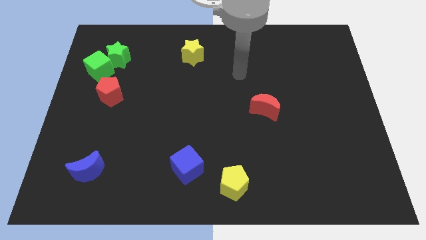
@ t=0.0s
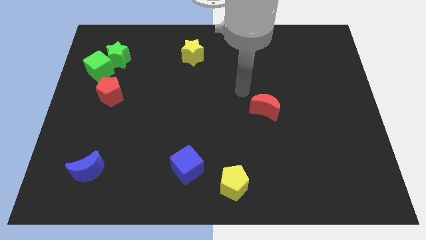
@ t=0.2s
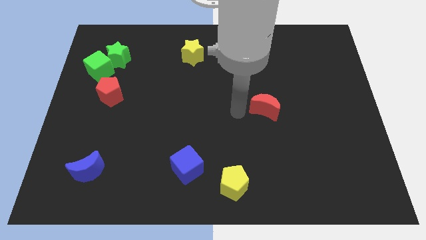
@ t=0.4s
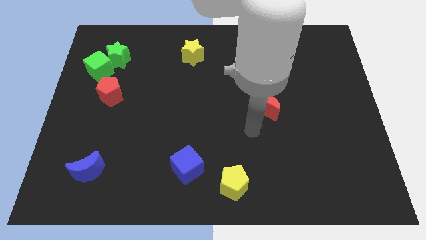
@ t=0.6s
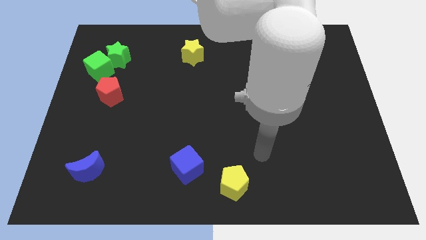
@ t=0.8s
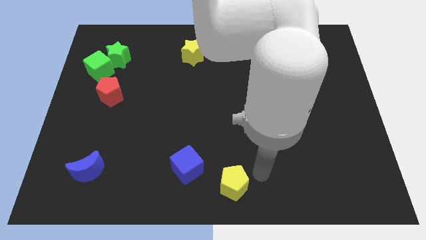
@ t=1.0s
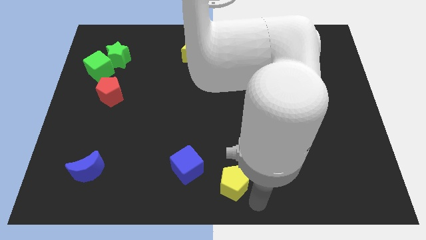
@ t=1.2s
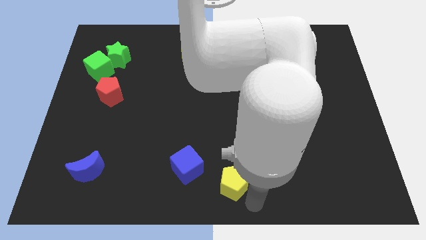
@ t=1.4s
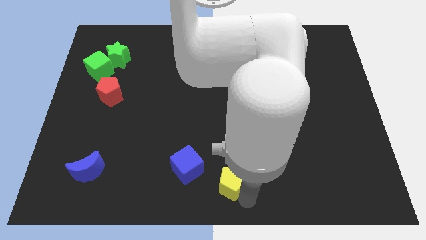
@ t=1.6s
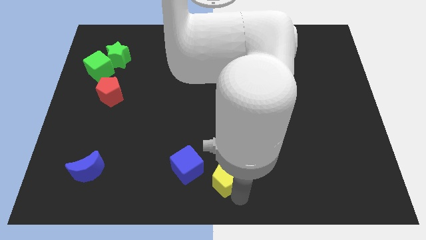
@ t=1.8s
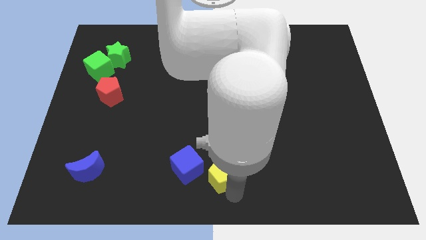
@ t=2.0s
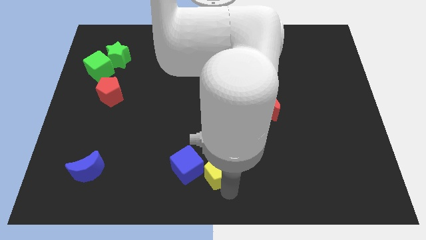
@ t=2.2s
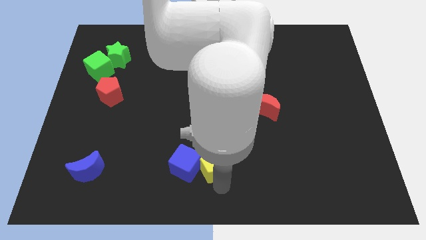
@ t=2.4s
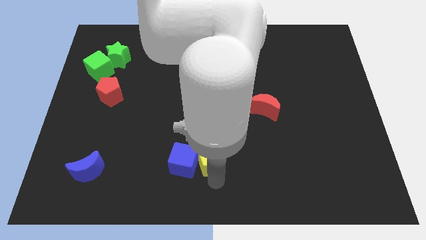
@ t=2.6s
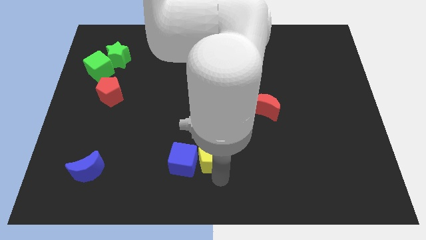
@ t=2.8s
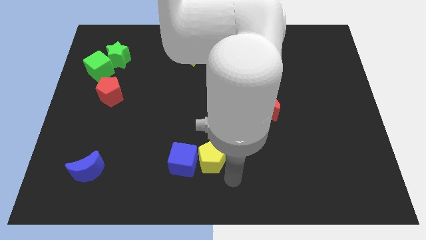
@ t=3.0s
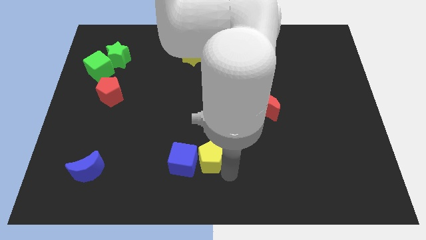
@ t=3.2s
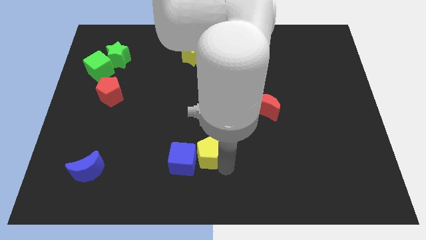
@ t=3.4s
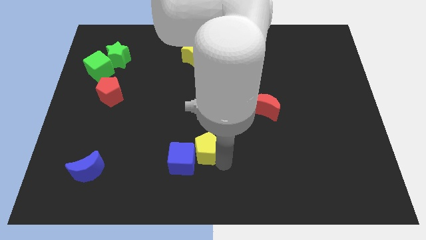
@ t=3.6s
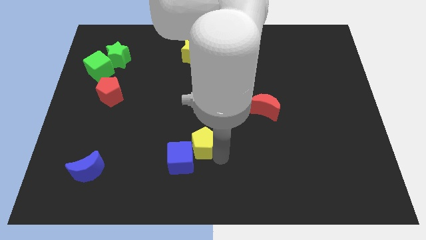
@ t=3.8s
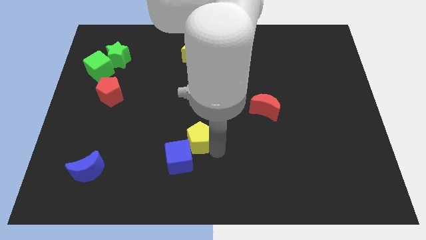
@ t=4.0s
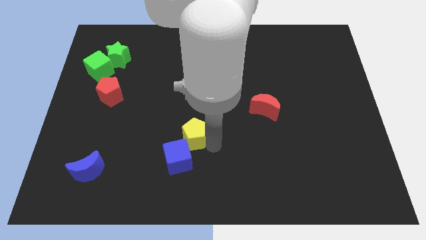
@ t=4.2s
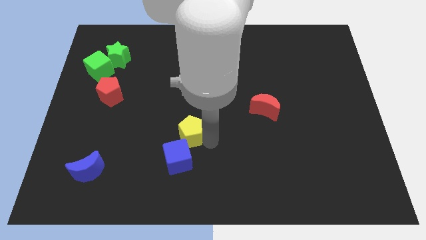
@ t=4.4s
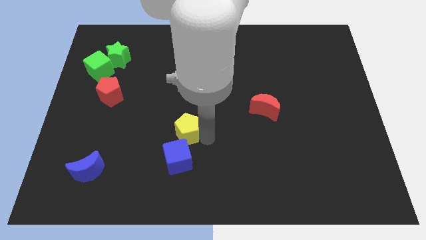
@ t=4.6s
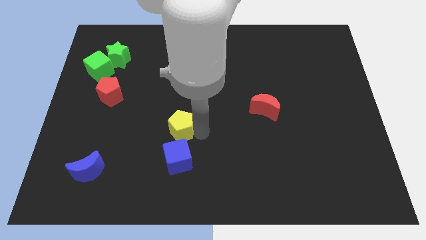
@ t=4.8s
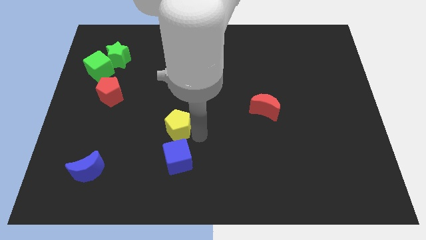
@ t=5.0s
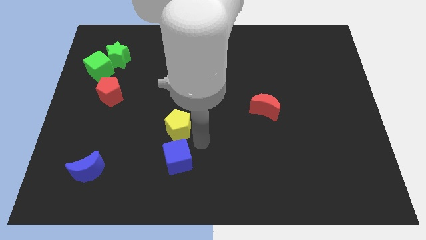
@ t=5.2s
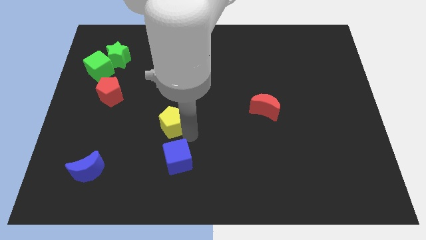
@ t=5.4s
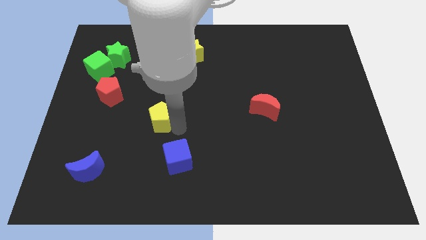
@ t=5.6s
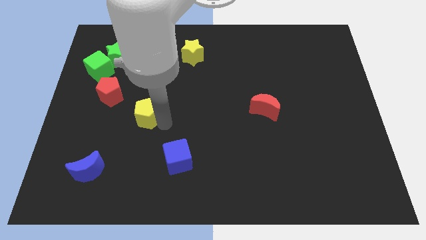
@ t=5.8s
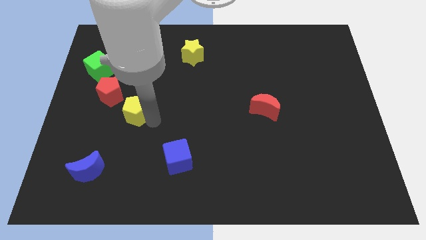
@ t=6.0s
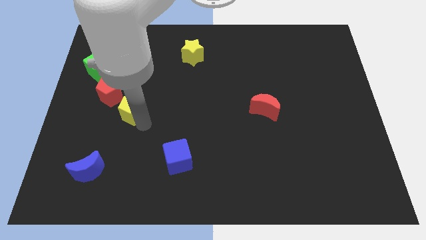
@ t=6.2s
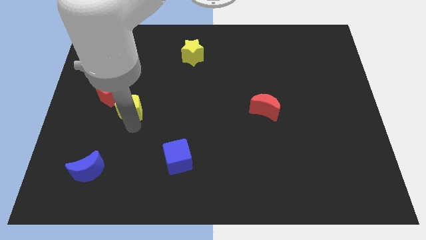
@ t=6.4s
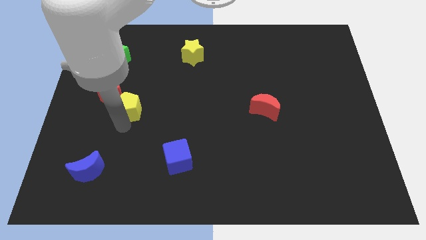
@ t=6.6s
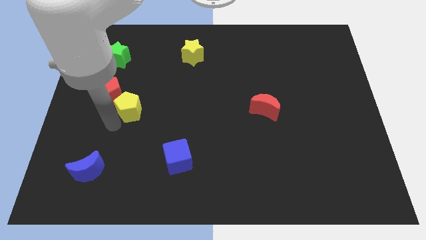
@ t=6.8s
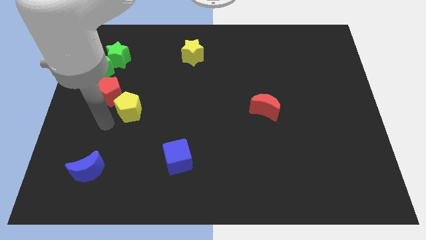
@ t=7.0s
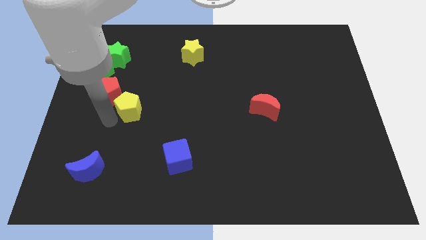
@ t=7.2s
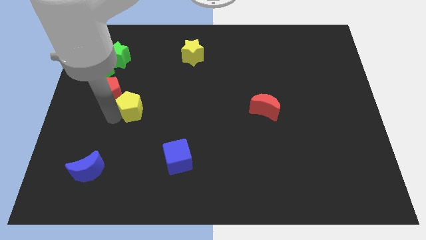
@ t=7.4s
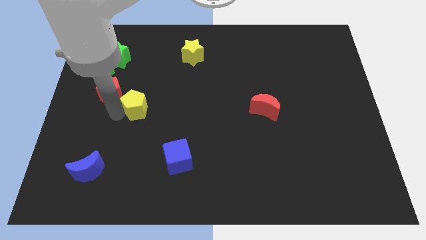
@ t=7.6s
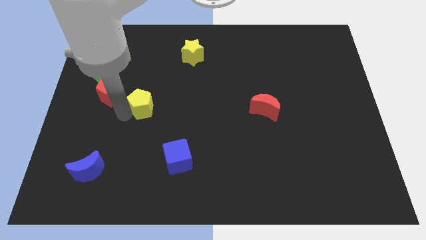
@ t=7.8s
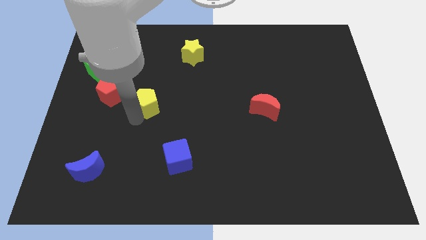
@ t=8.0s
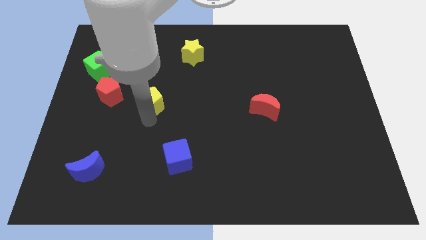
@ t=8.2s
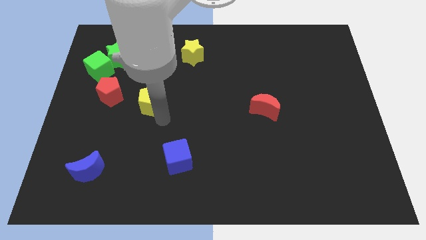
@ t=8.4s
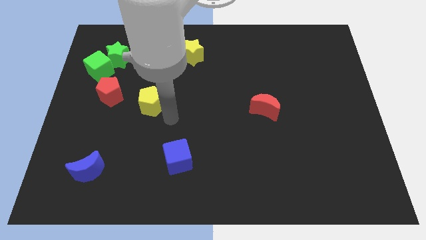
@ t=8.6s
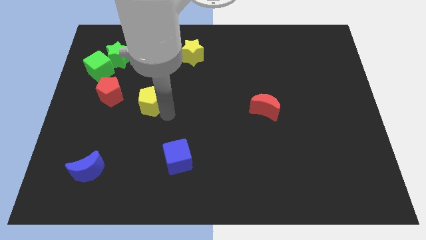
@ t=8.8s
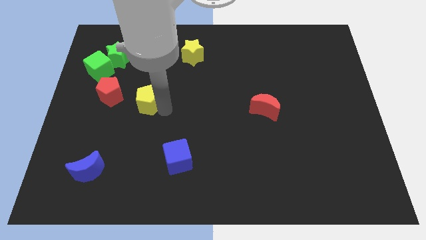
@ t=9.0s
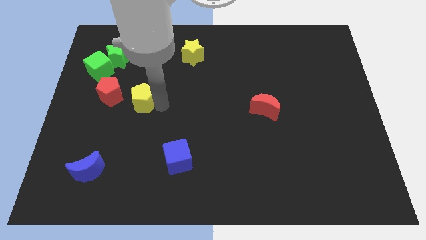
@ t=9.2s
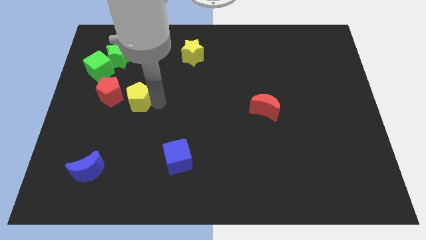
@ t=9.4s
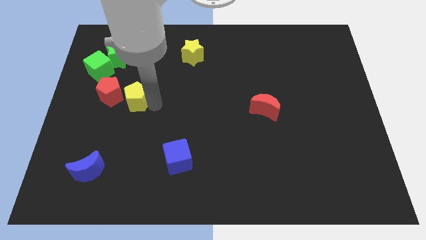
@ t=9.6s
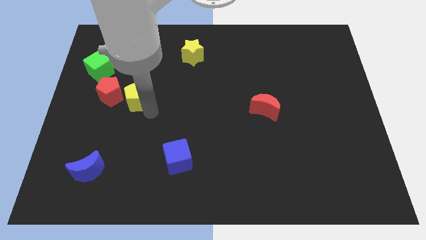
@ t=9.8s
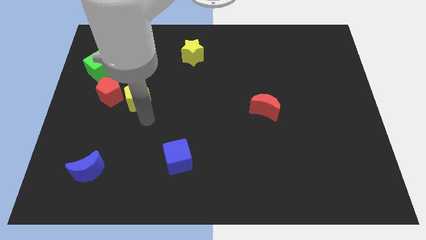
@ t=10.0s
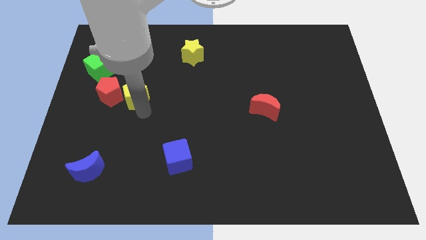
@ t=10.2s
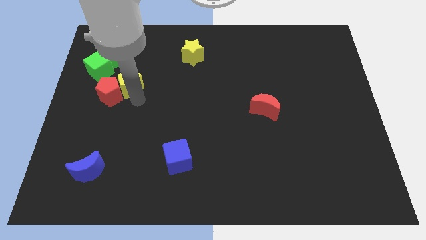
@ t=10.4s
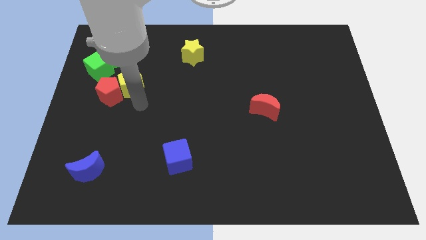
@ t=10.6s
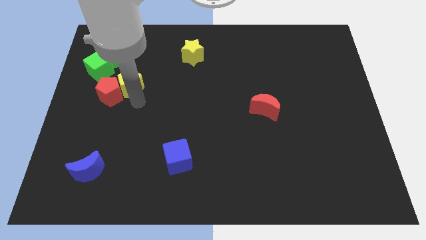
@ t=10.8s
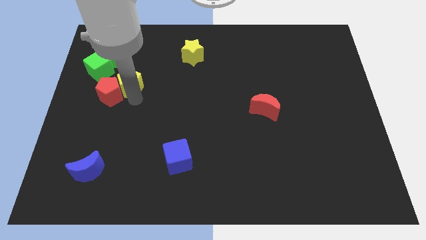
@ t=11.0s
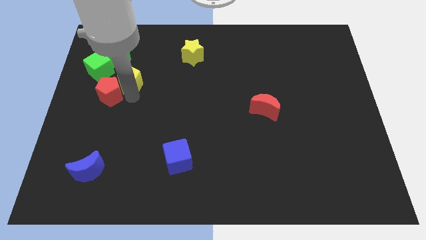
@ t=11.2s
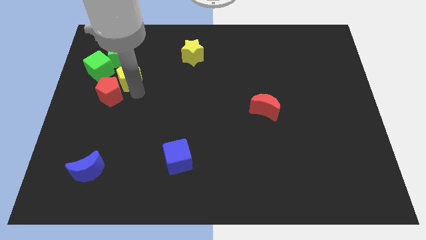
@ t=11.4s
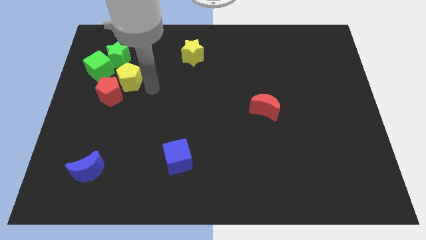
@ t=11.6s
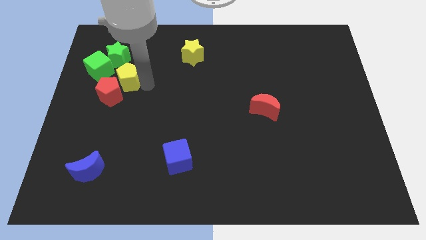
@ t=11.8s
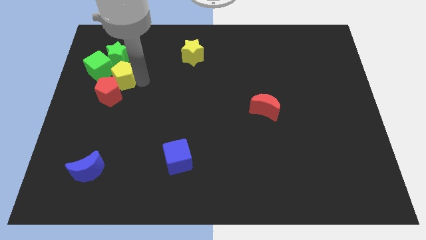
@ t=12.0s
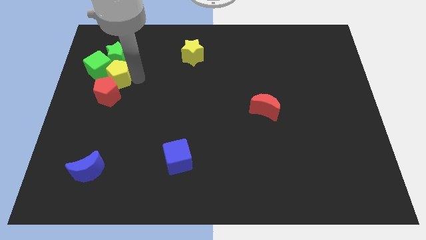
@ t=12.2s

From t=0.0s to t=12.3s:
put the yellow pentagon next to the green cube

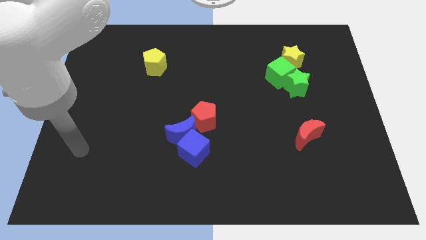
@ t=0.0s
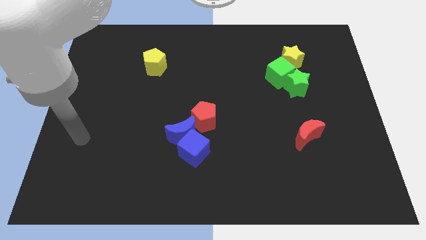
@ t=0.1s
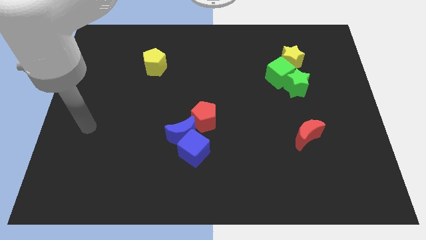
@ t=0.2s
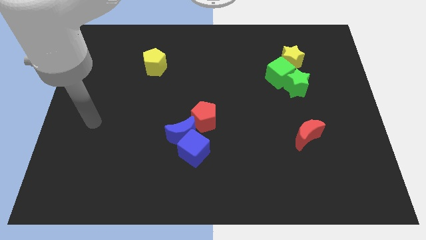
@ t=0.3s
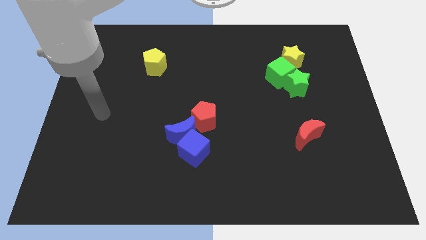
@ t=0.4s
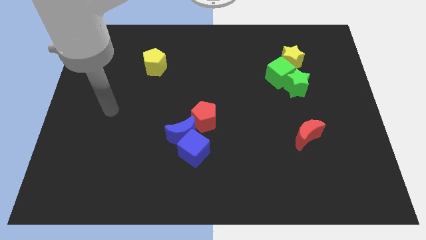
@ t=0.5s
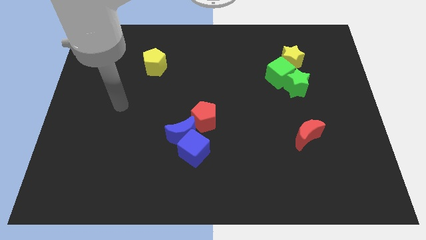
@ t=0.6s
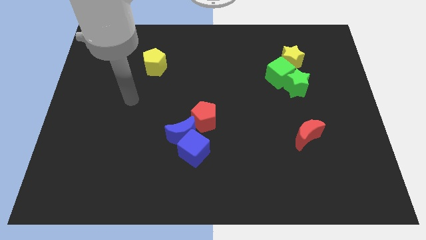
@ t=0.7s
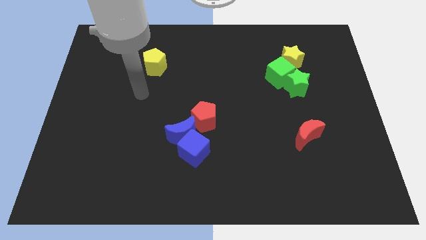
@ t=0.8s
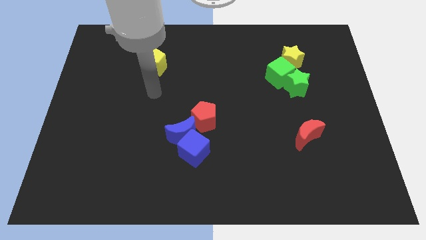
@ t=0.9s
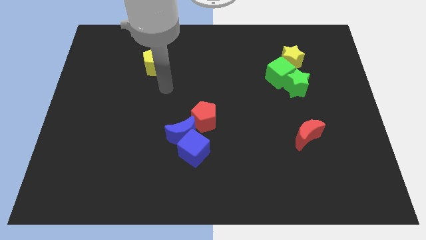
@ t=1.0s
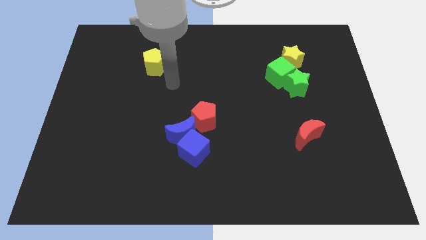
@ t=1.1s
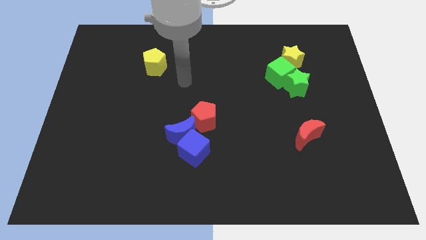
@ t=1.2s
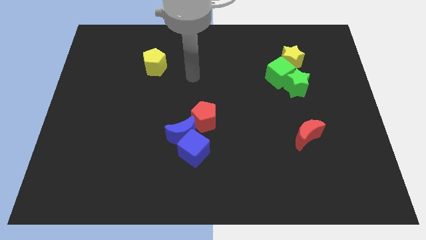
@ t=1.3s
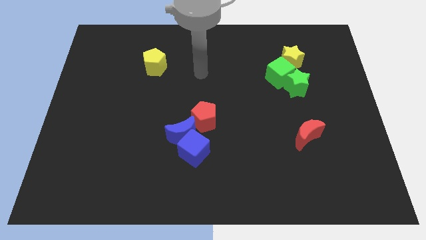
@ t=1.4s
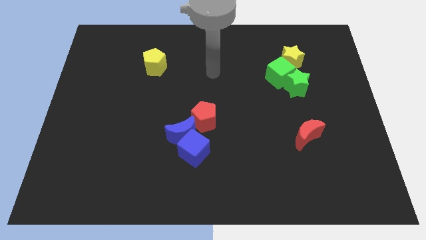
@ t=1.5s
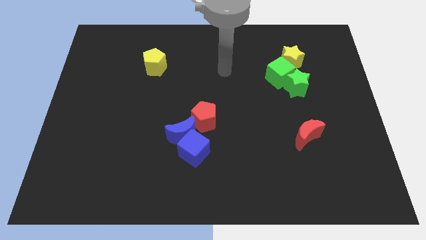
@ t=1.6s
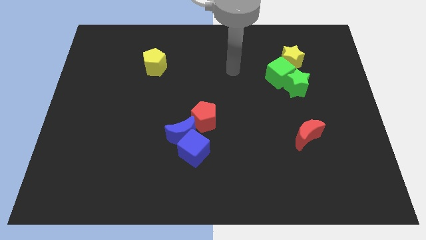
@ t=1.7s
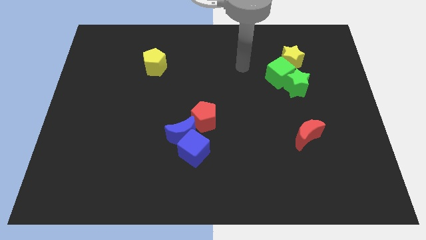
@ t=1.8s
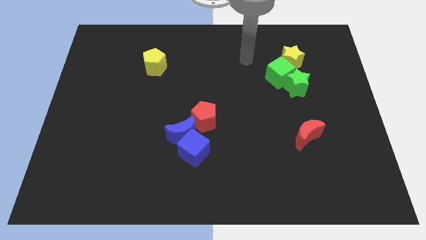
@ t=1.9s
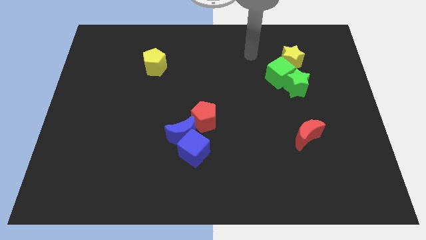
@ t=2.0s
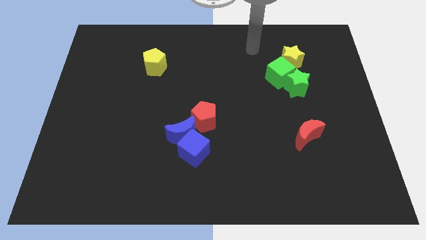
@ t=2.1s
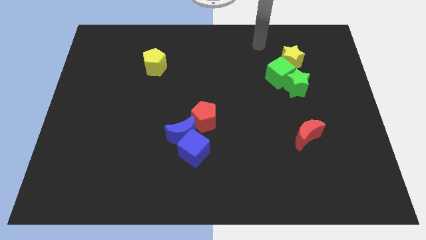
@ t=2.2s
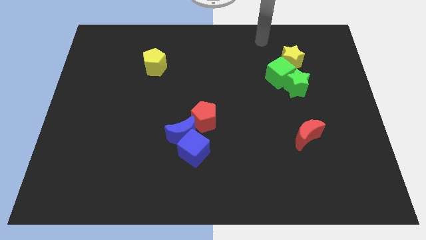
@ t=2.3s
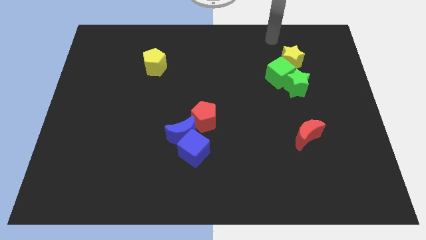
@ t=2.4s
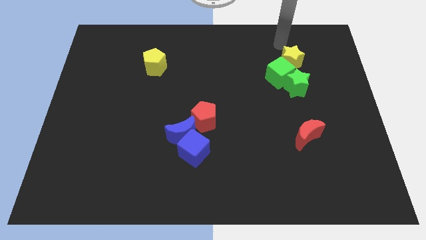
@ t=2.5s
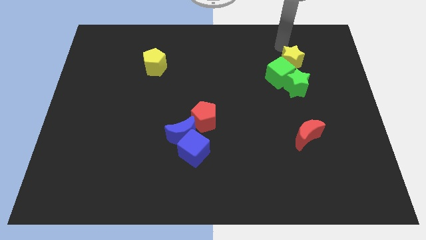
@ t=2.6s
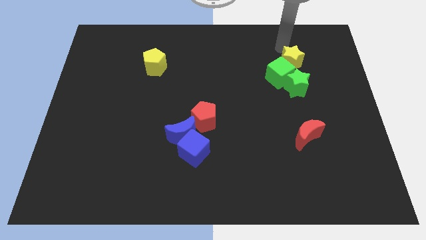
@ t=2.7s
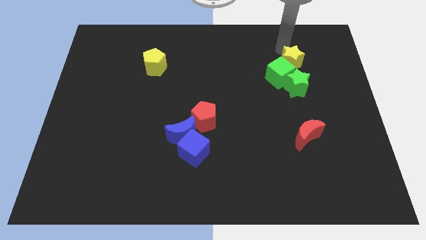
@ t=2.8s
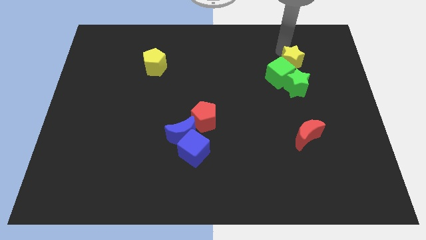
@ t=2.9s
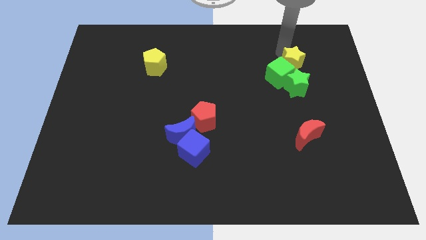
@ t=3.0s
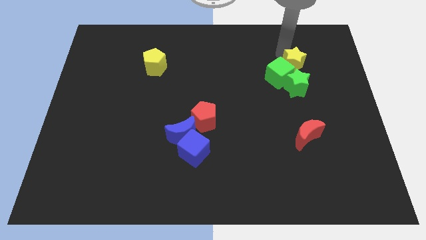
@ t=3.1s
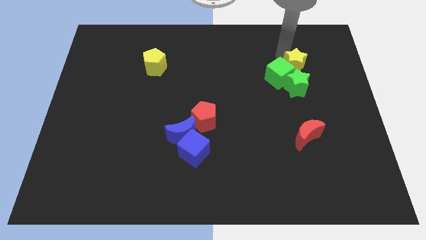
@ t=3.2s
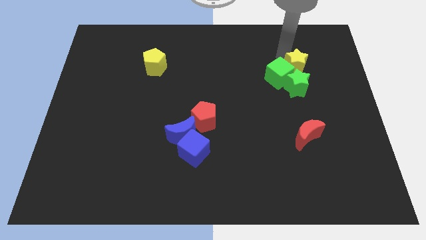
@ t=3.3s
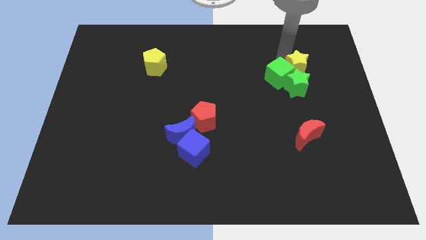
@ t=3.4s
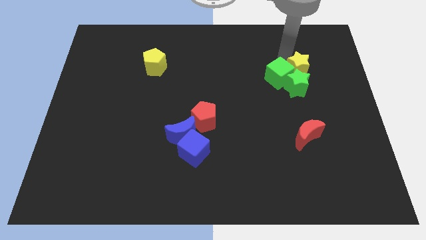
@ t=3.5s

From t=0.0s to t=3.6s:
move the yellow star close to the green star
